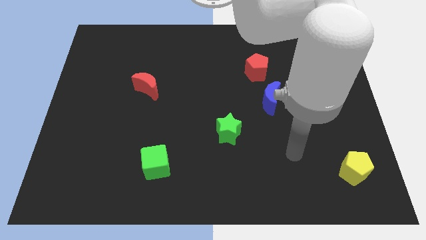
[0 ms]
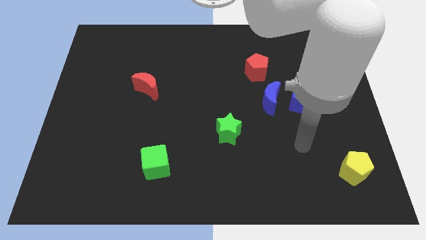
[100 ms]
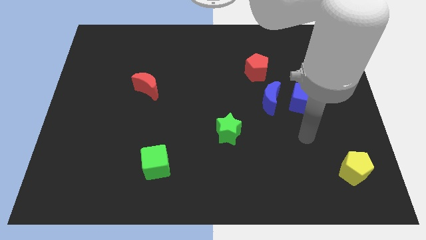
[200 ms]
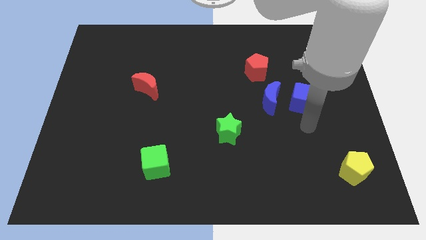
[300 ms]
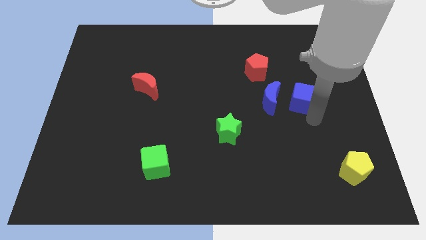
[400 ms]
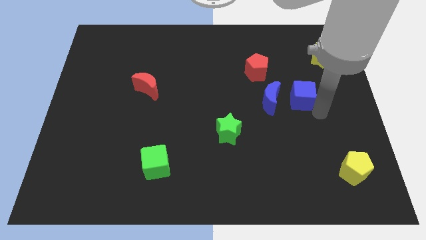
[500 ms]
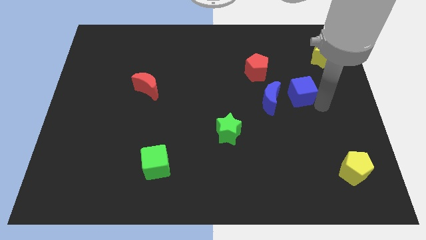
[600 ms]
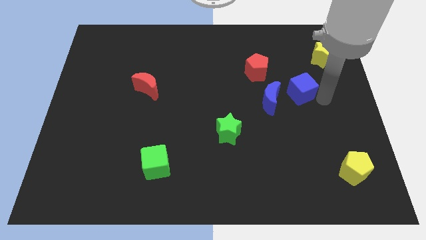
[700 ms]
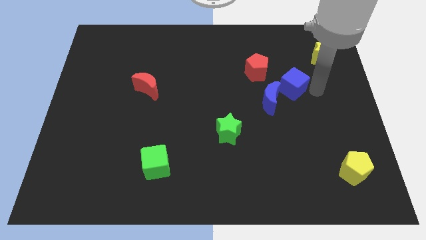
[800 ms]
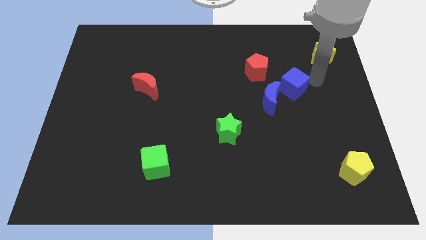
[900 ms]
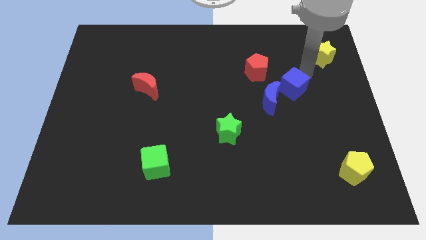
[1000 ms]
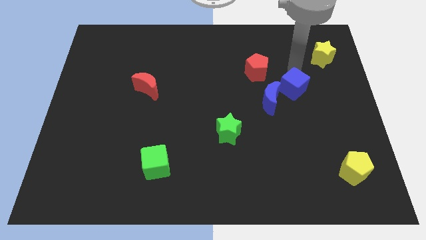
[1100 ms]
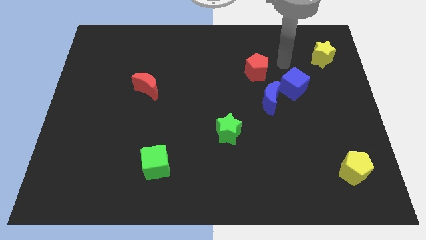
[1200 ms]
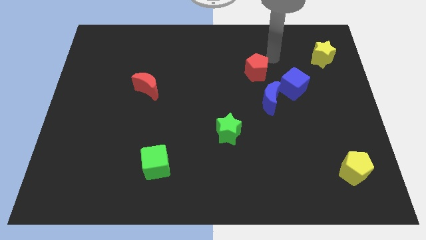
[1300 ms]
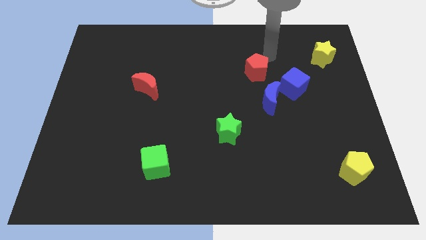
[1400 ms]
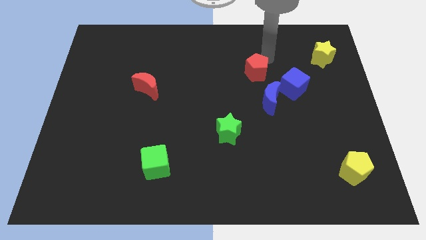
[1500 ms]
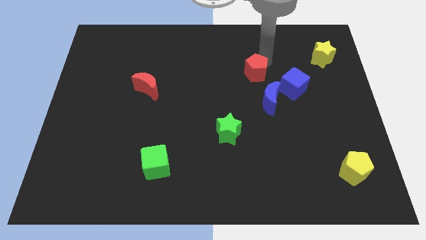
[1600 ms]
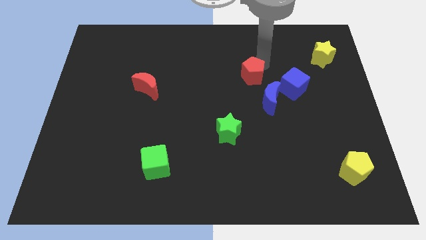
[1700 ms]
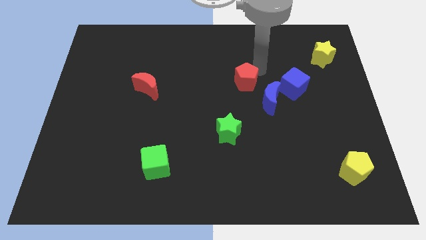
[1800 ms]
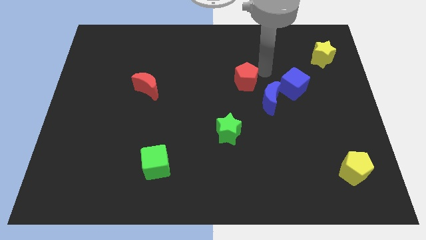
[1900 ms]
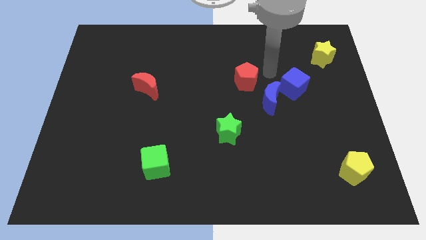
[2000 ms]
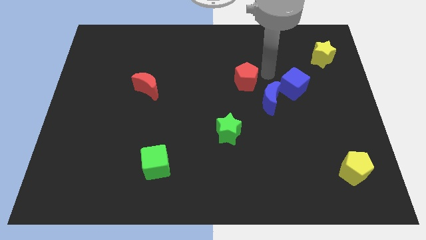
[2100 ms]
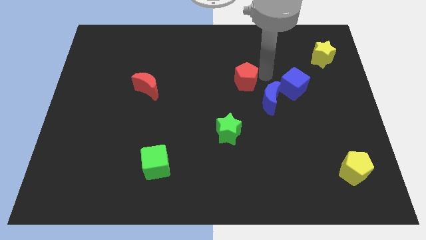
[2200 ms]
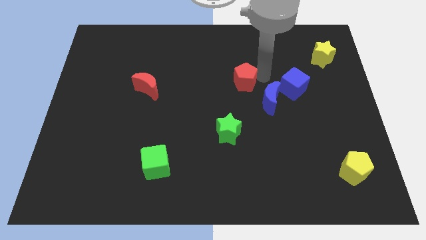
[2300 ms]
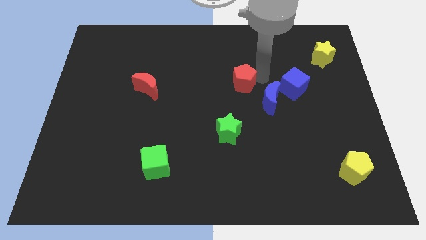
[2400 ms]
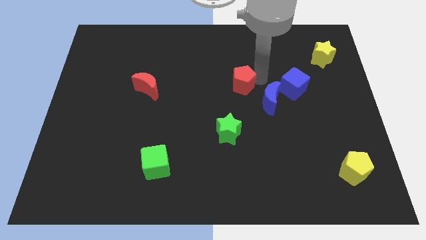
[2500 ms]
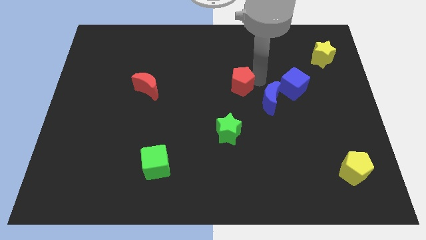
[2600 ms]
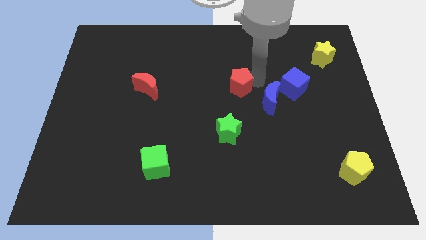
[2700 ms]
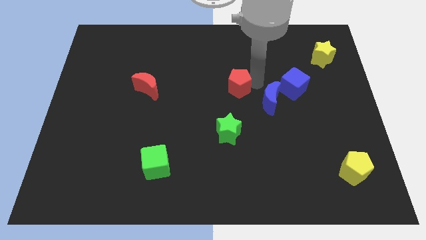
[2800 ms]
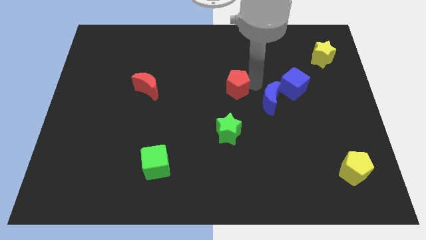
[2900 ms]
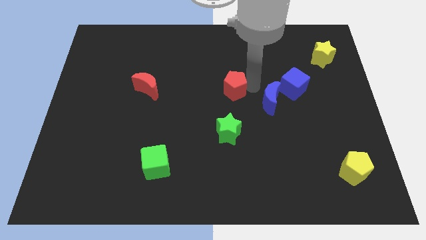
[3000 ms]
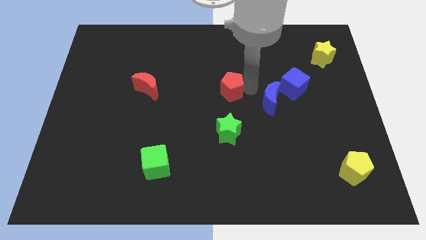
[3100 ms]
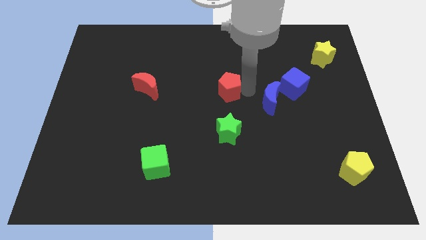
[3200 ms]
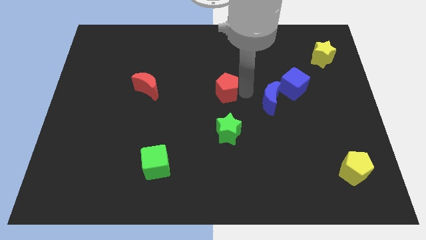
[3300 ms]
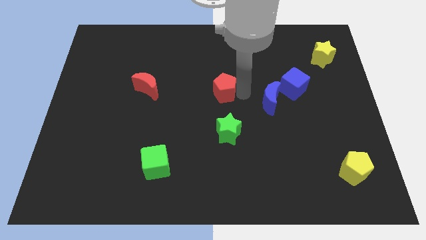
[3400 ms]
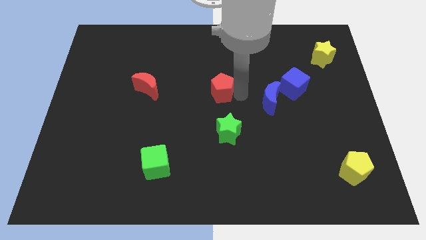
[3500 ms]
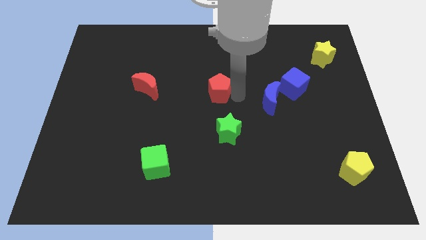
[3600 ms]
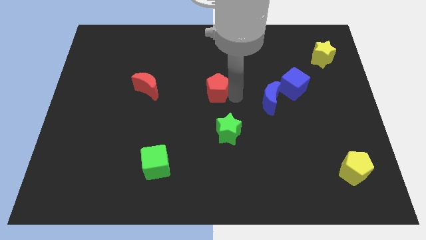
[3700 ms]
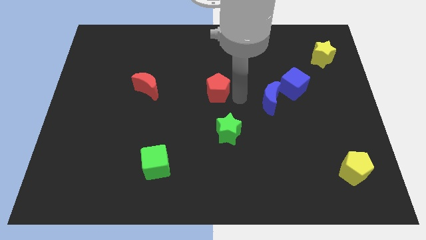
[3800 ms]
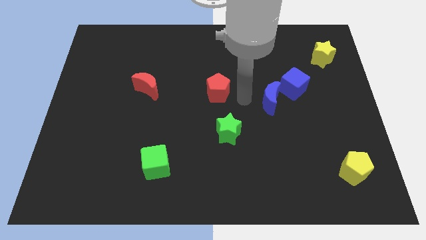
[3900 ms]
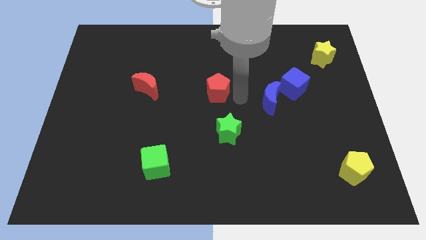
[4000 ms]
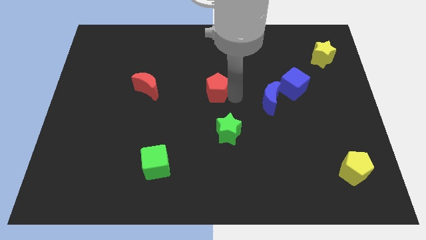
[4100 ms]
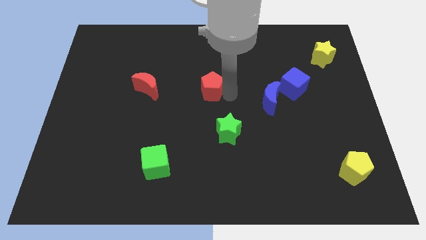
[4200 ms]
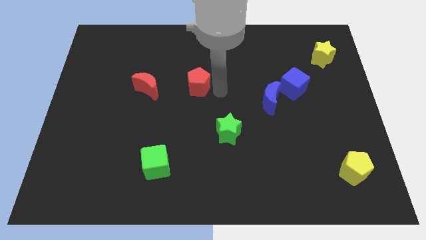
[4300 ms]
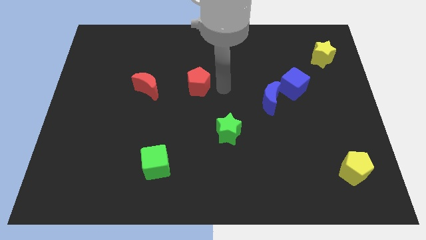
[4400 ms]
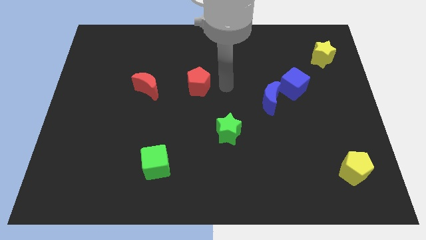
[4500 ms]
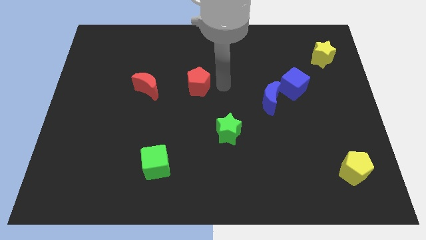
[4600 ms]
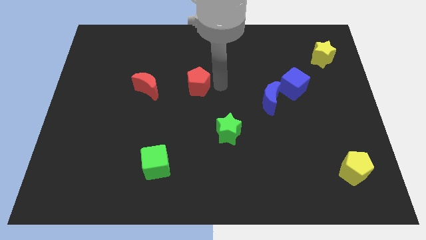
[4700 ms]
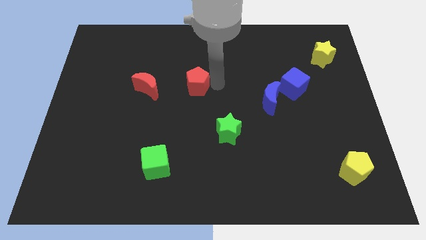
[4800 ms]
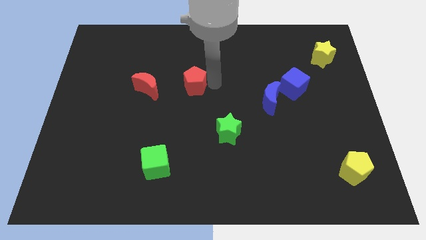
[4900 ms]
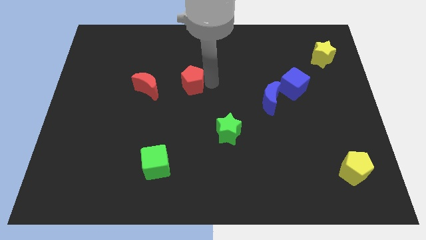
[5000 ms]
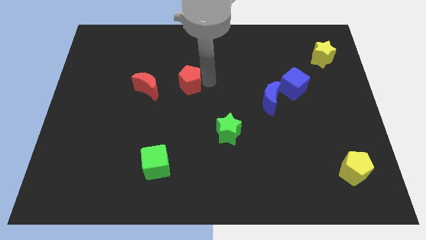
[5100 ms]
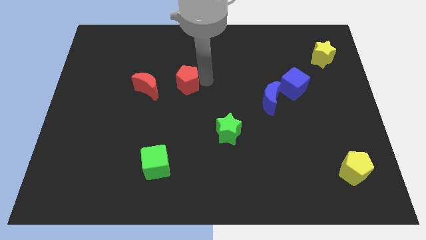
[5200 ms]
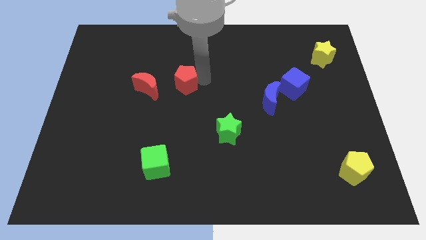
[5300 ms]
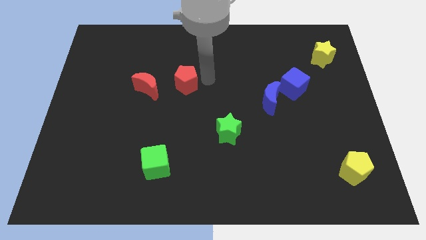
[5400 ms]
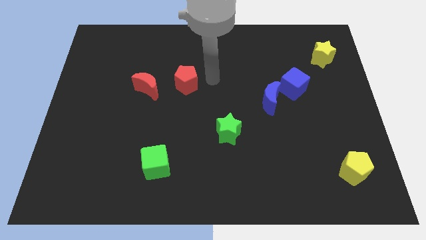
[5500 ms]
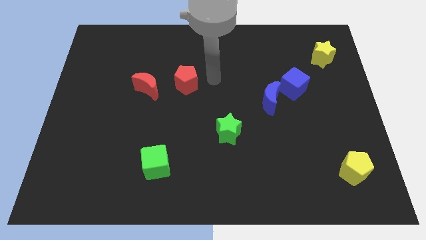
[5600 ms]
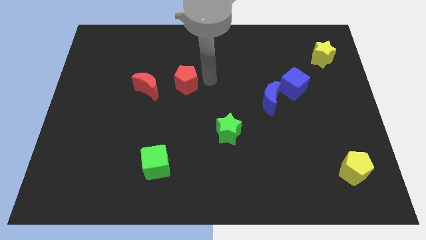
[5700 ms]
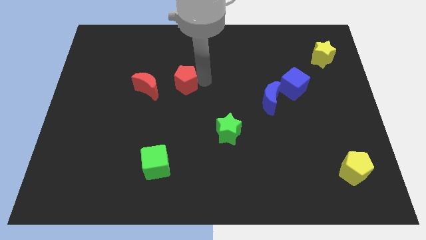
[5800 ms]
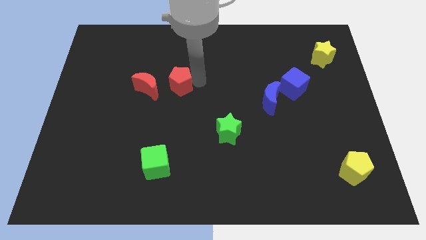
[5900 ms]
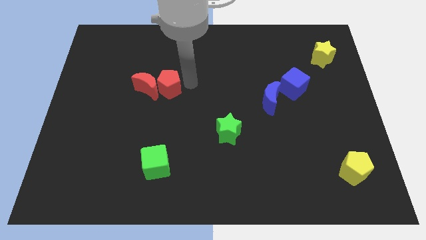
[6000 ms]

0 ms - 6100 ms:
move the red pentagon next to the red moon

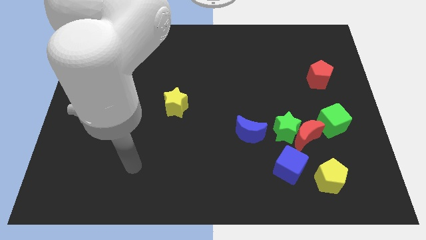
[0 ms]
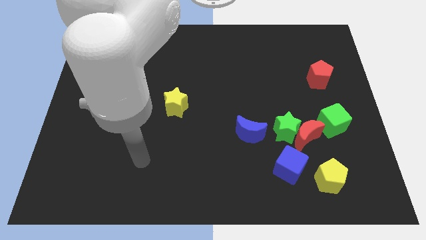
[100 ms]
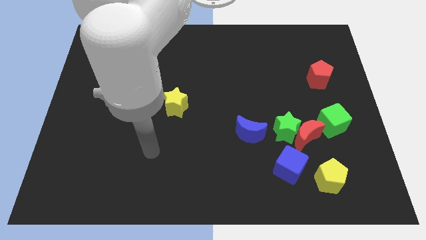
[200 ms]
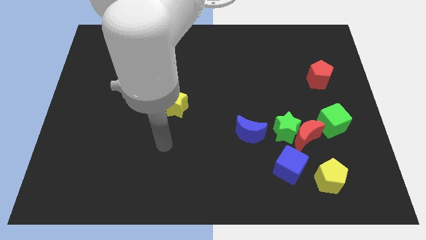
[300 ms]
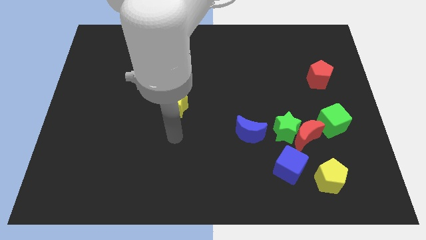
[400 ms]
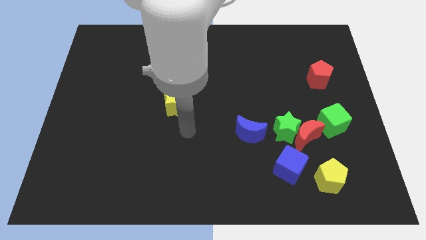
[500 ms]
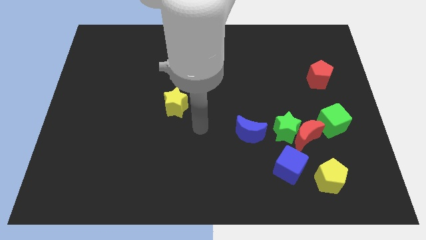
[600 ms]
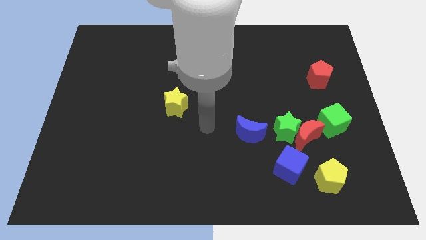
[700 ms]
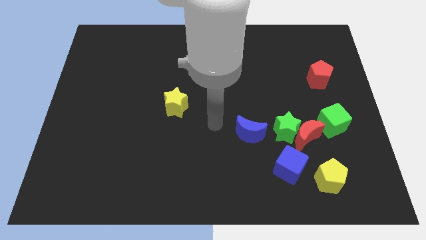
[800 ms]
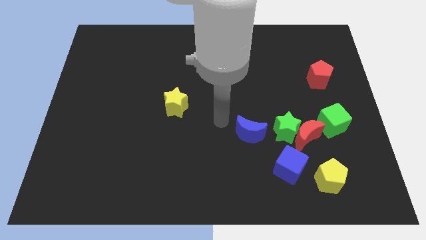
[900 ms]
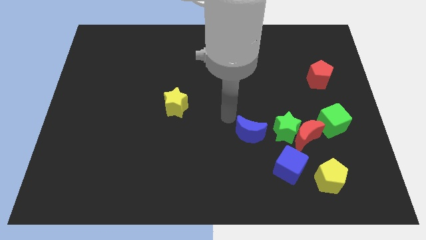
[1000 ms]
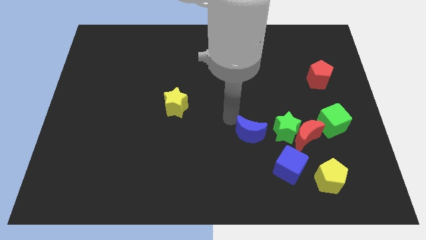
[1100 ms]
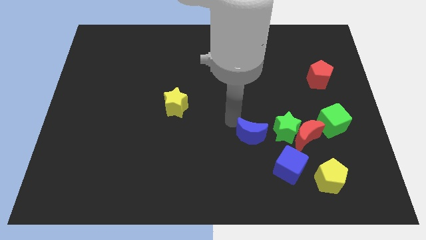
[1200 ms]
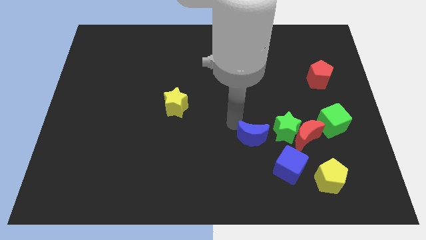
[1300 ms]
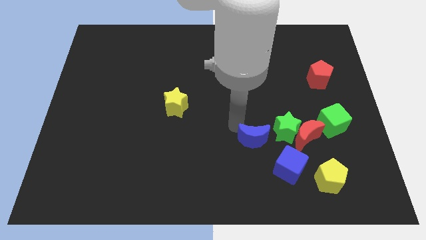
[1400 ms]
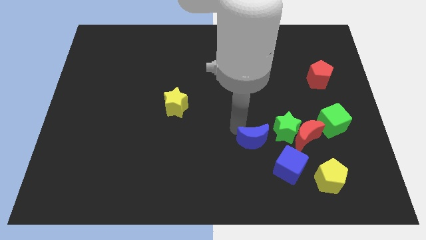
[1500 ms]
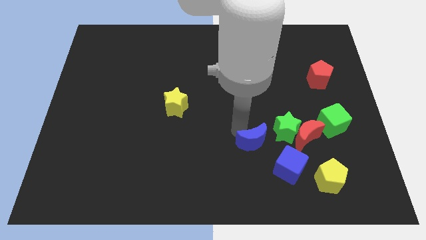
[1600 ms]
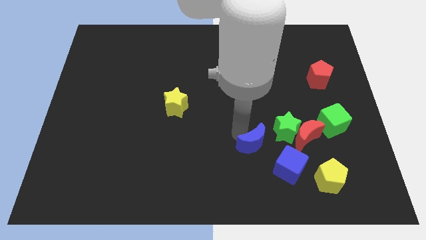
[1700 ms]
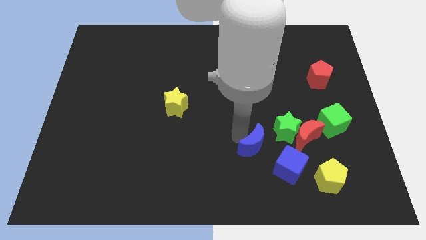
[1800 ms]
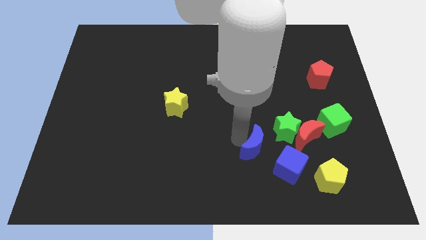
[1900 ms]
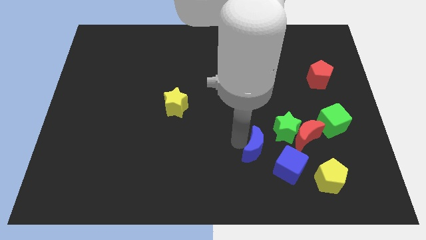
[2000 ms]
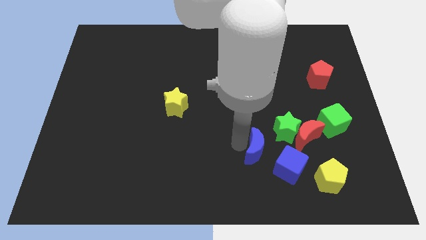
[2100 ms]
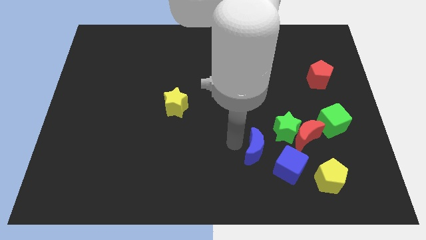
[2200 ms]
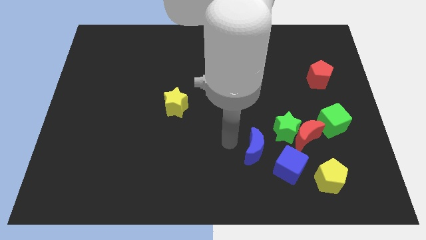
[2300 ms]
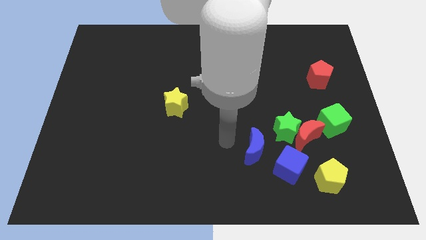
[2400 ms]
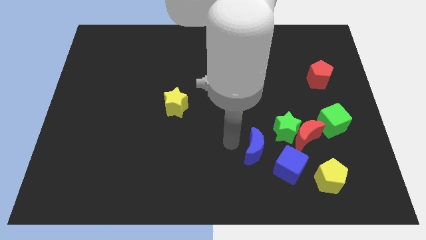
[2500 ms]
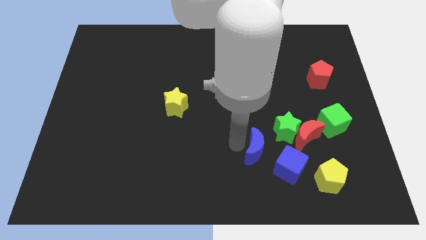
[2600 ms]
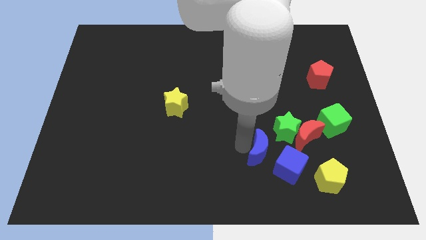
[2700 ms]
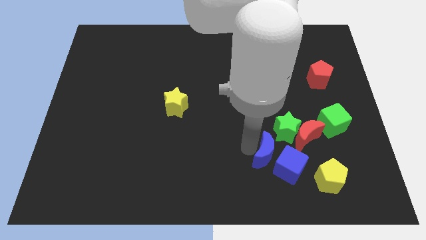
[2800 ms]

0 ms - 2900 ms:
slide the blue moon towards the blue cube
